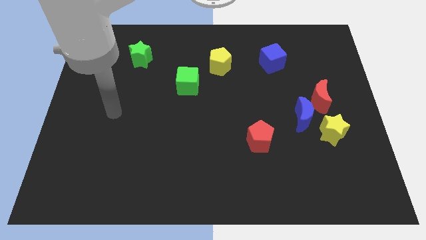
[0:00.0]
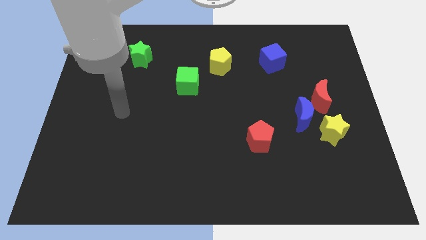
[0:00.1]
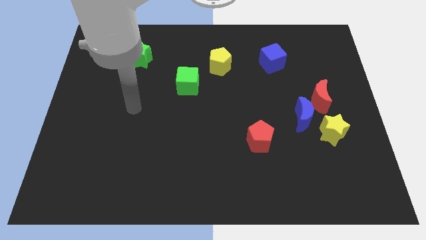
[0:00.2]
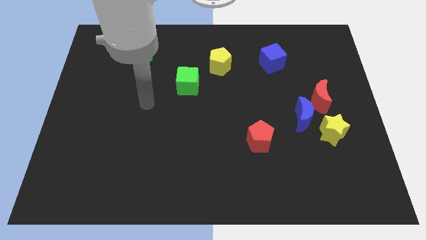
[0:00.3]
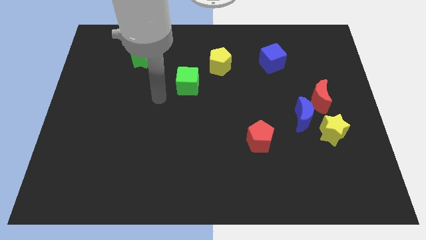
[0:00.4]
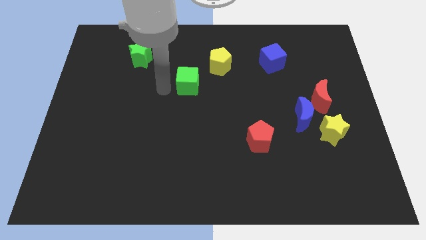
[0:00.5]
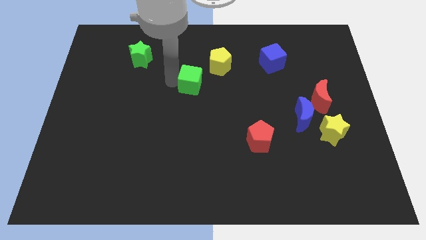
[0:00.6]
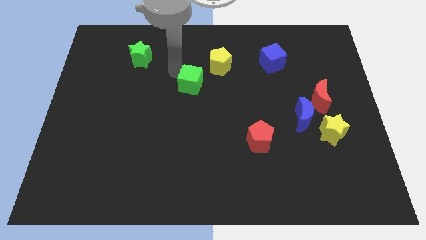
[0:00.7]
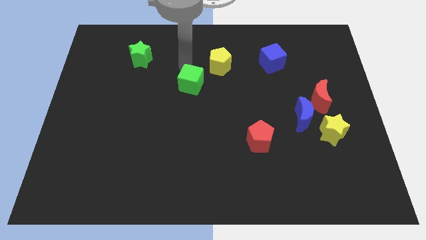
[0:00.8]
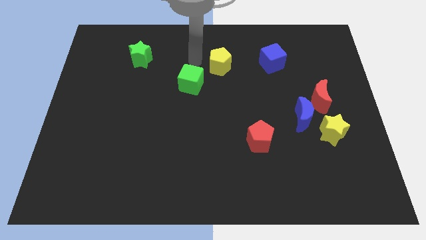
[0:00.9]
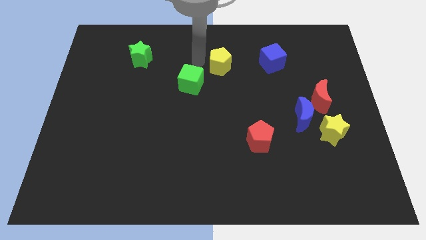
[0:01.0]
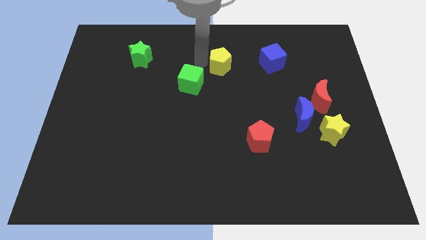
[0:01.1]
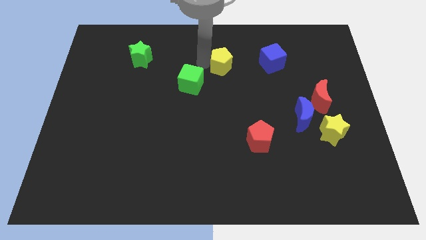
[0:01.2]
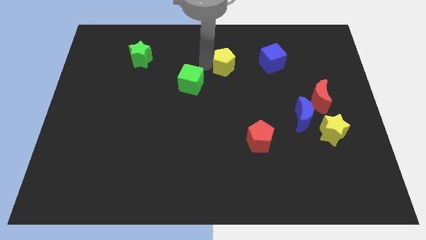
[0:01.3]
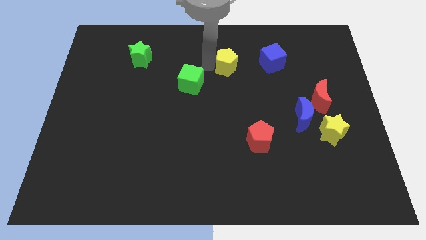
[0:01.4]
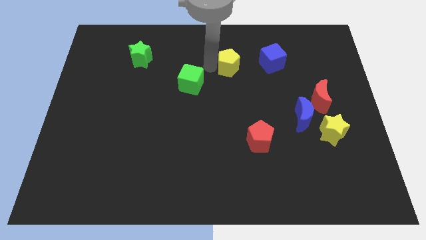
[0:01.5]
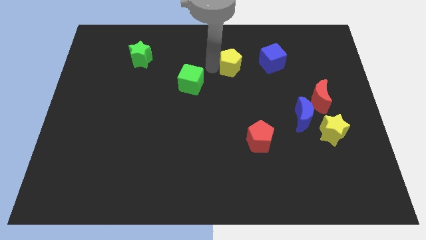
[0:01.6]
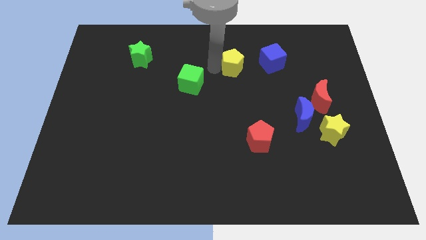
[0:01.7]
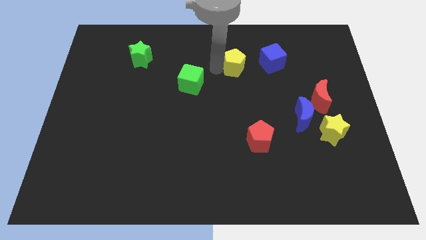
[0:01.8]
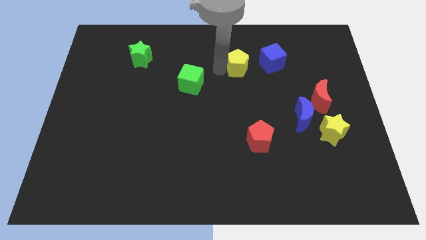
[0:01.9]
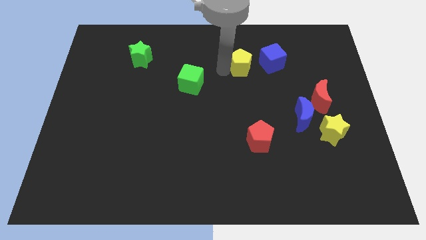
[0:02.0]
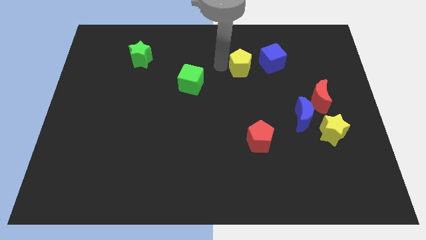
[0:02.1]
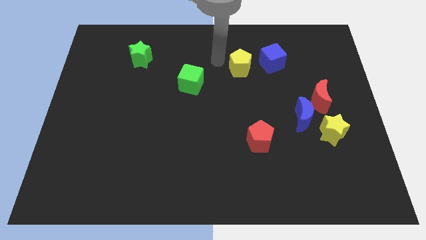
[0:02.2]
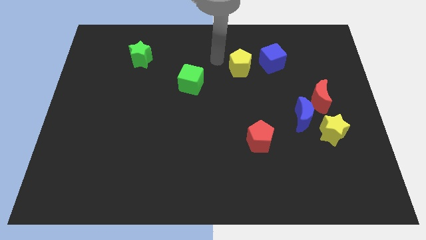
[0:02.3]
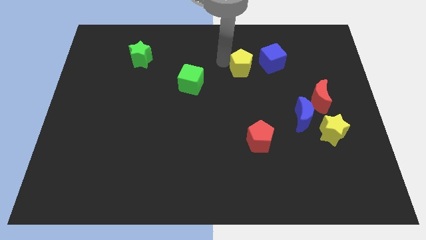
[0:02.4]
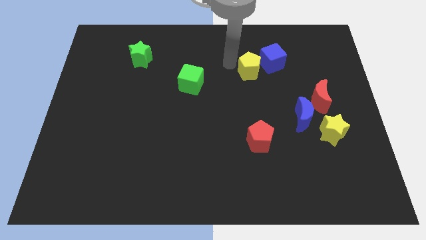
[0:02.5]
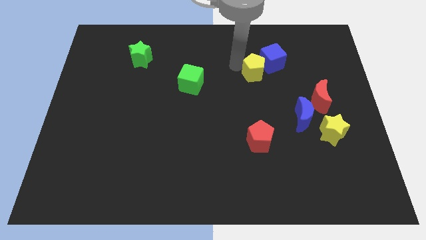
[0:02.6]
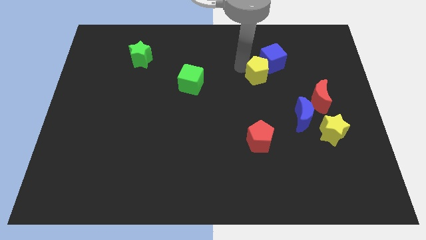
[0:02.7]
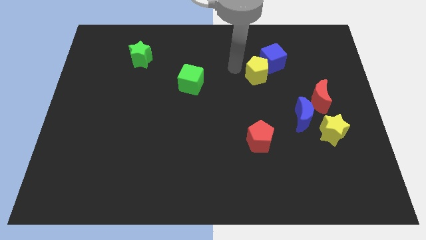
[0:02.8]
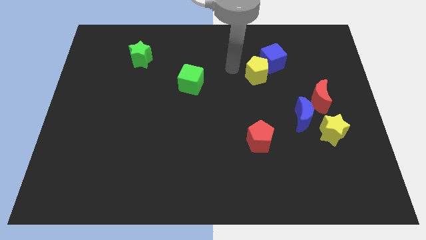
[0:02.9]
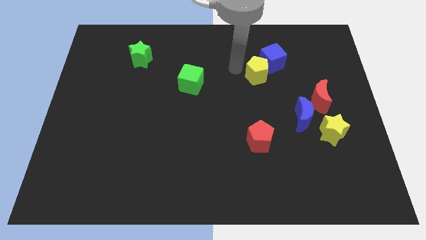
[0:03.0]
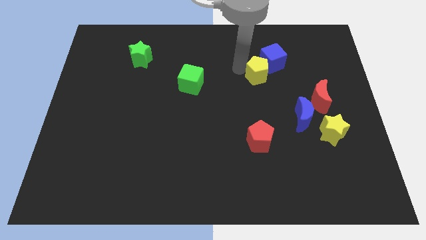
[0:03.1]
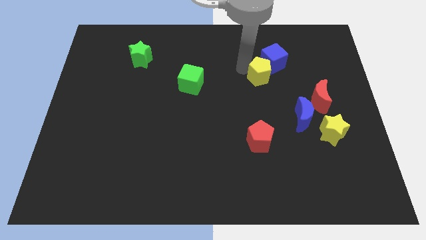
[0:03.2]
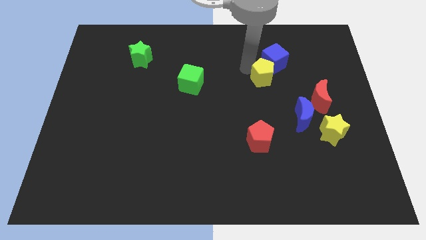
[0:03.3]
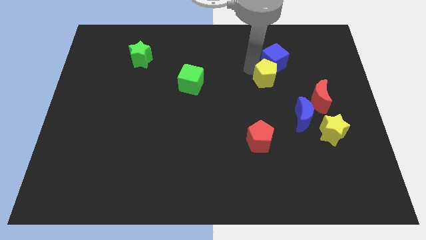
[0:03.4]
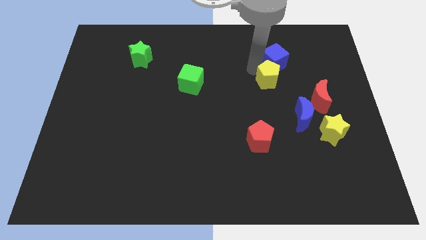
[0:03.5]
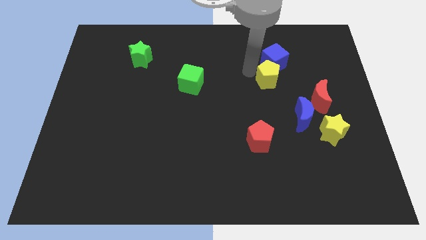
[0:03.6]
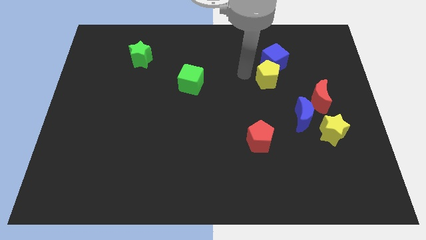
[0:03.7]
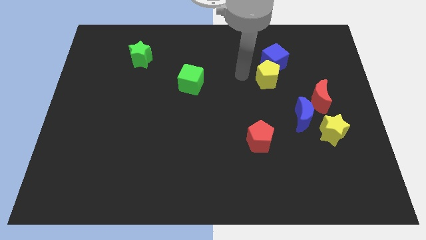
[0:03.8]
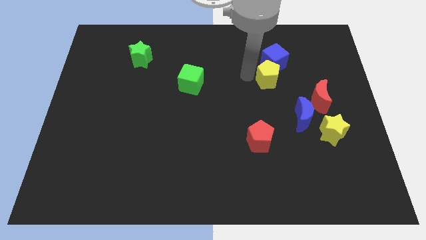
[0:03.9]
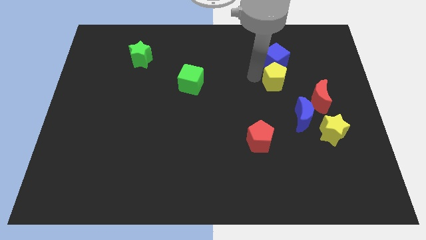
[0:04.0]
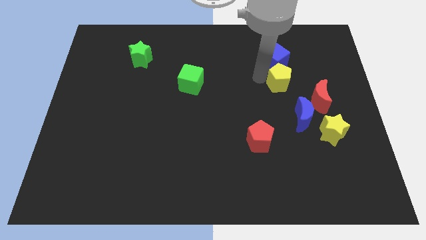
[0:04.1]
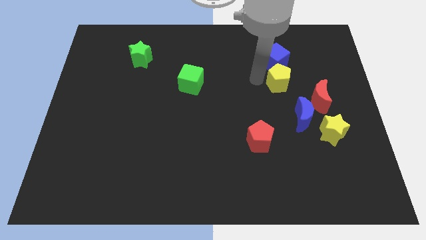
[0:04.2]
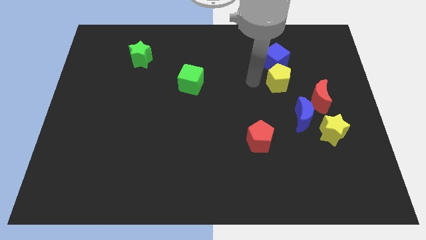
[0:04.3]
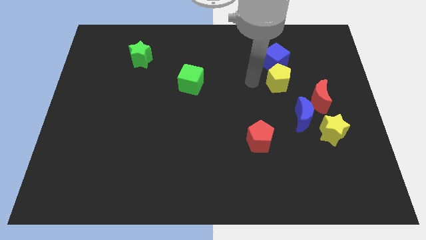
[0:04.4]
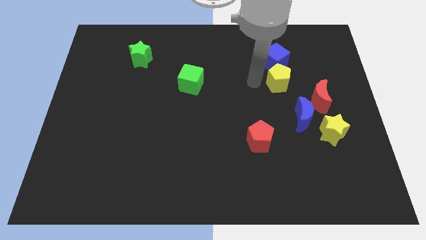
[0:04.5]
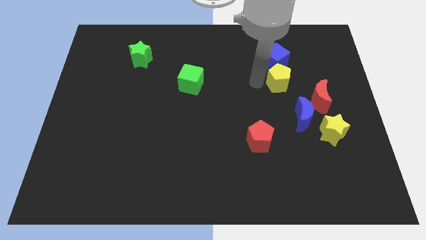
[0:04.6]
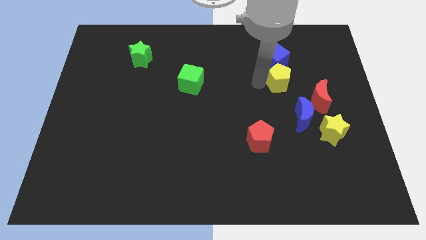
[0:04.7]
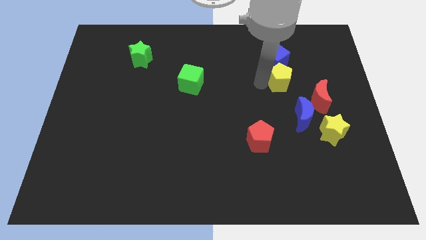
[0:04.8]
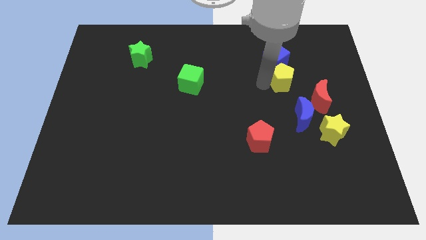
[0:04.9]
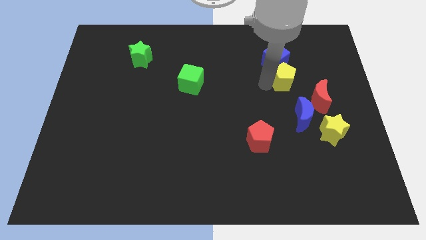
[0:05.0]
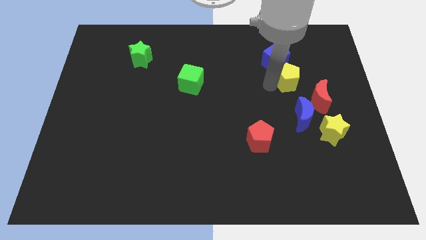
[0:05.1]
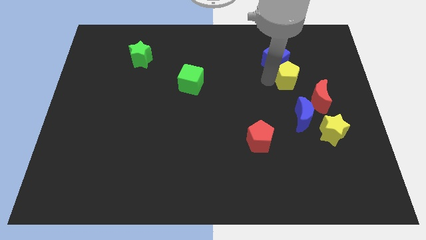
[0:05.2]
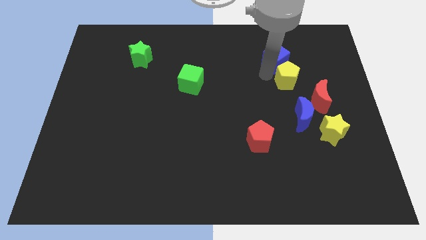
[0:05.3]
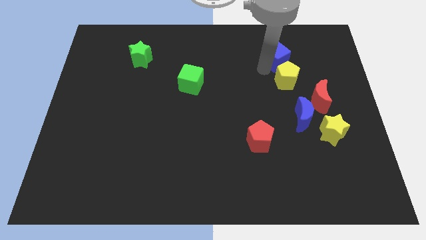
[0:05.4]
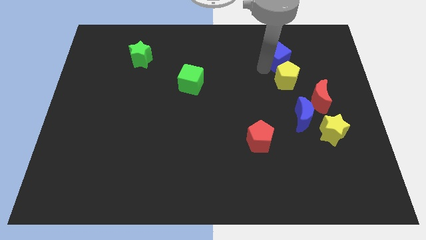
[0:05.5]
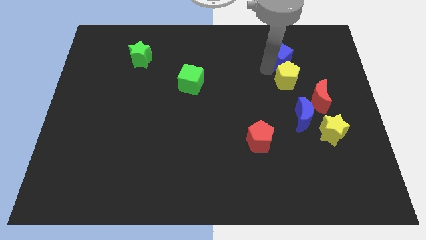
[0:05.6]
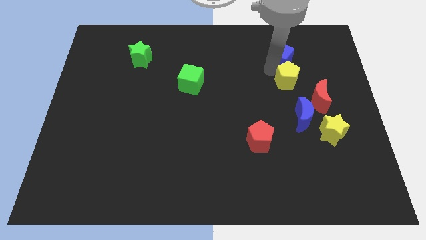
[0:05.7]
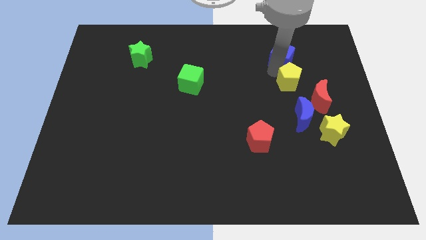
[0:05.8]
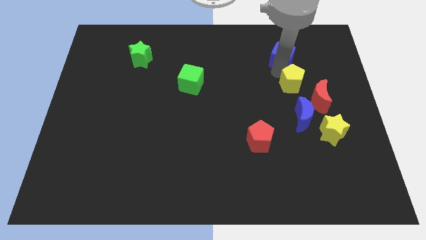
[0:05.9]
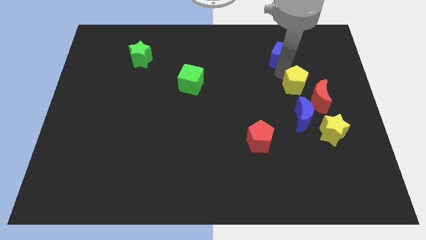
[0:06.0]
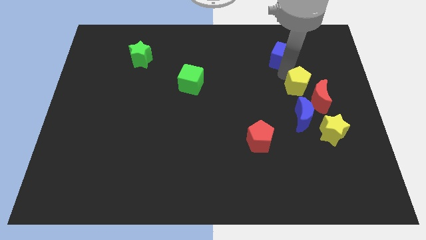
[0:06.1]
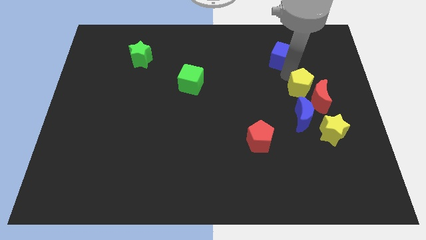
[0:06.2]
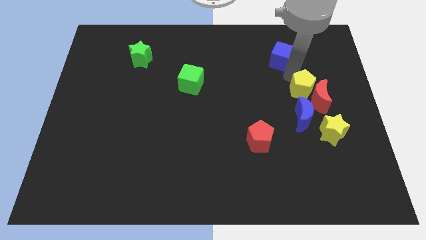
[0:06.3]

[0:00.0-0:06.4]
move the yellow pentagon to the top side of the yellow star

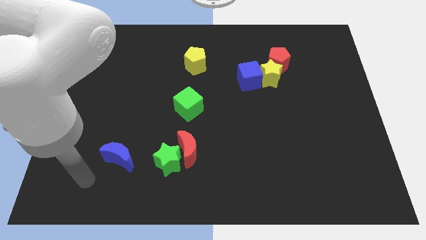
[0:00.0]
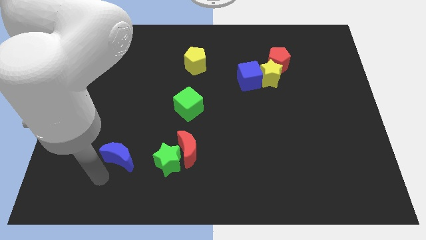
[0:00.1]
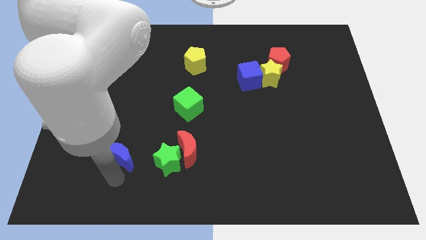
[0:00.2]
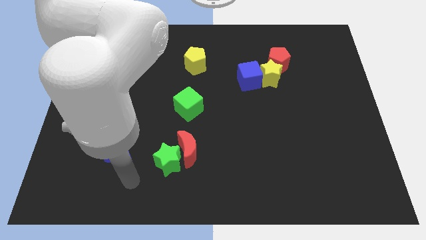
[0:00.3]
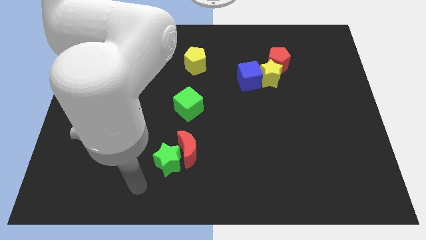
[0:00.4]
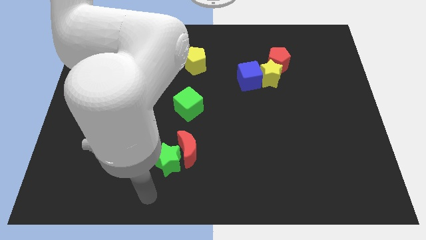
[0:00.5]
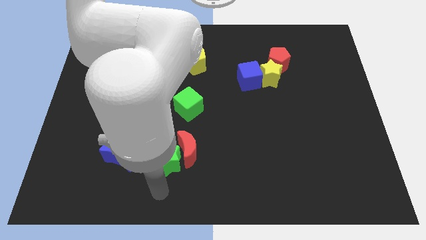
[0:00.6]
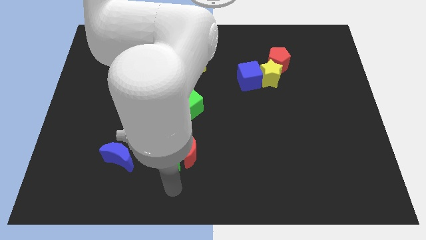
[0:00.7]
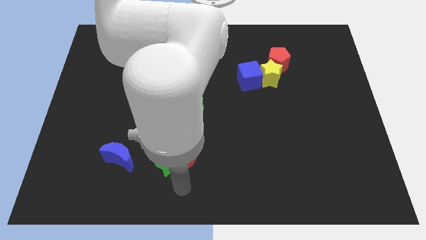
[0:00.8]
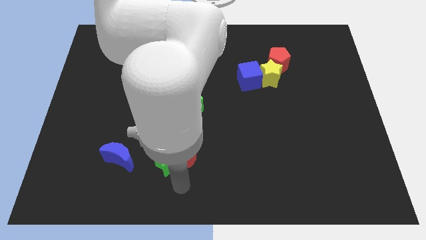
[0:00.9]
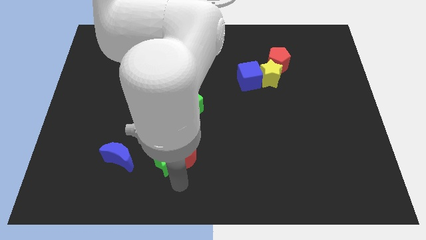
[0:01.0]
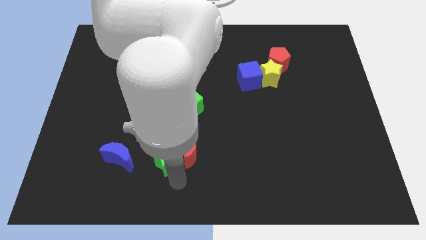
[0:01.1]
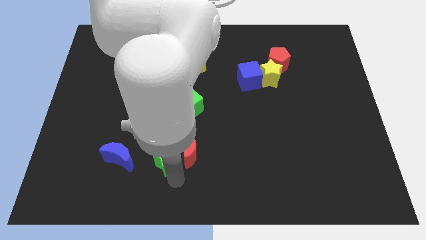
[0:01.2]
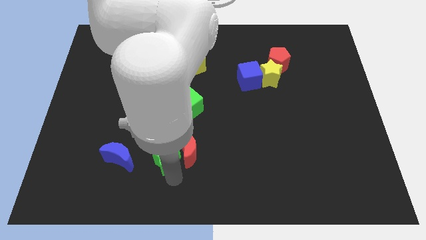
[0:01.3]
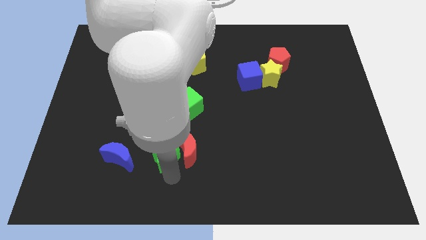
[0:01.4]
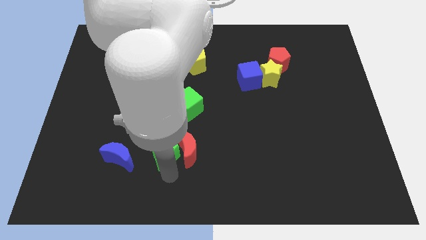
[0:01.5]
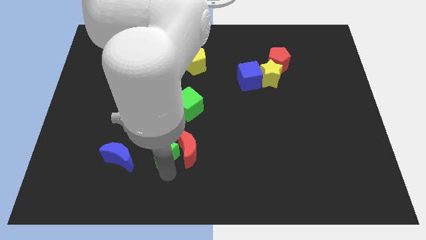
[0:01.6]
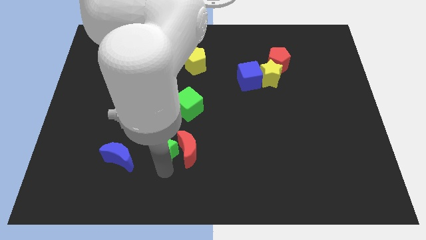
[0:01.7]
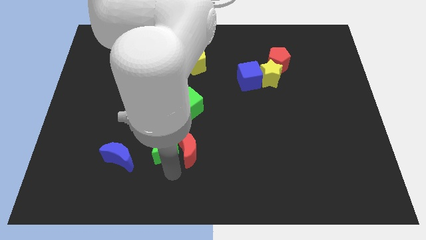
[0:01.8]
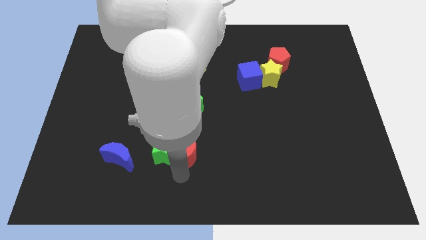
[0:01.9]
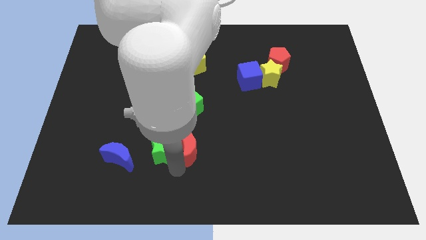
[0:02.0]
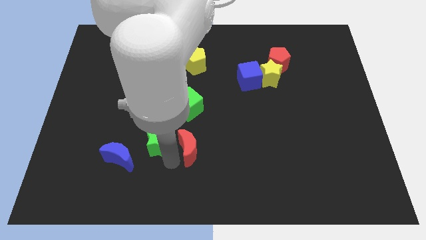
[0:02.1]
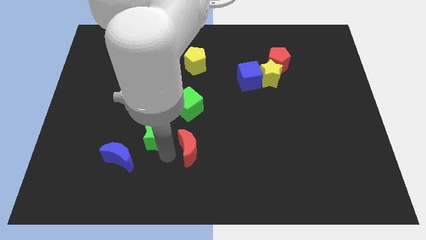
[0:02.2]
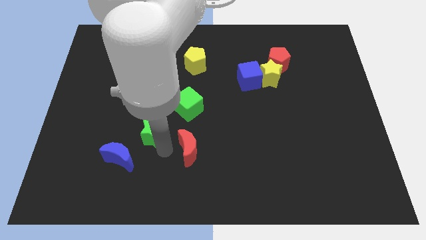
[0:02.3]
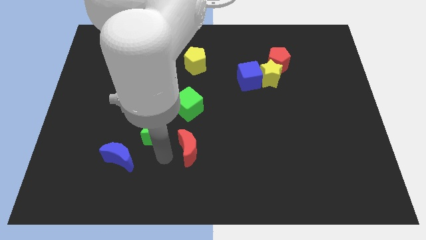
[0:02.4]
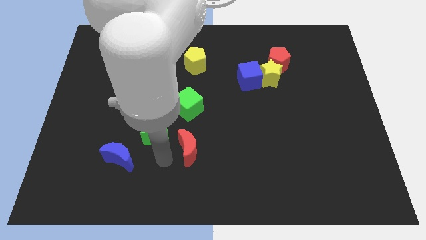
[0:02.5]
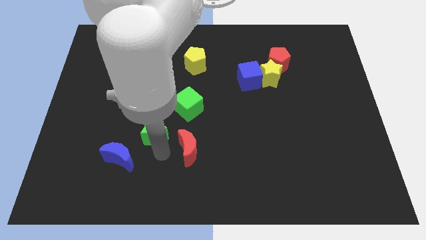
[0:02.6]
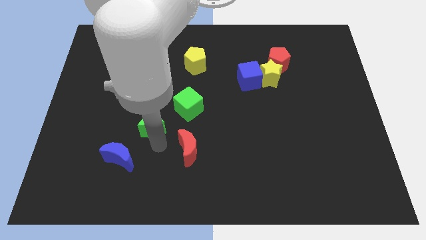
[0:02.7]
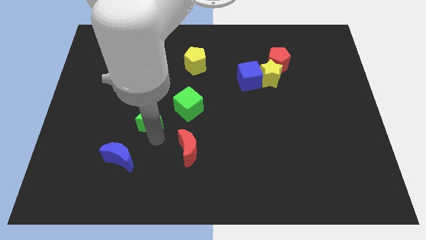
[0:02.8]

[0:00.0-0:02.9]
slide the green star to the left of the green cube
